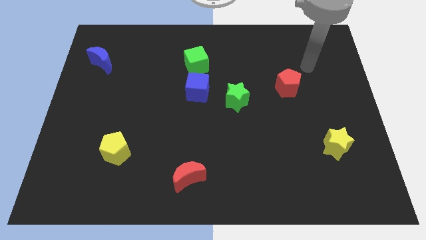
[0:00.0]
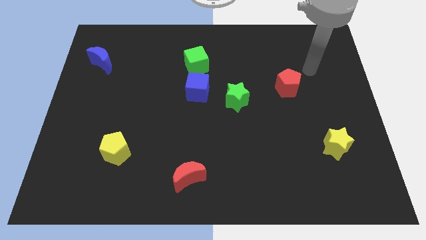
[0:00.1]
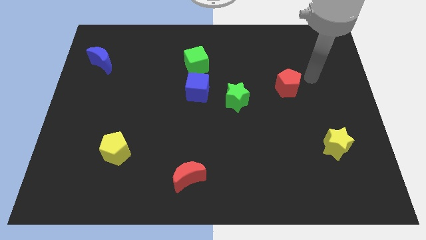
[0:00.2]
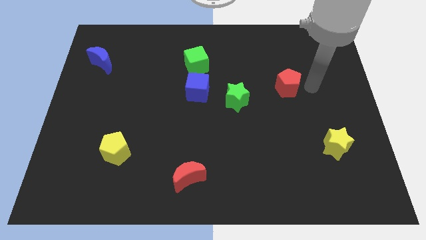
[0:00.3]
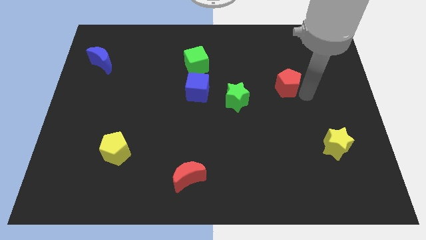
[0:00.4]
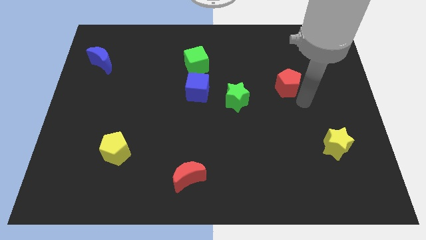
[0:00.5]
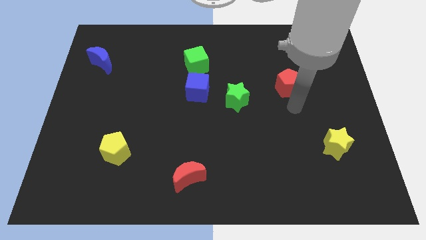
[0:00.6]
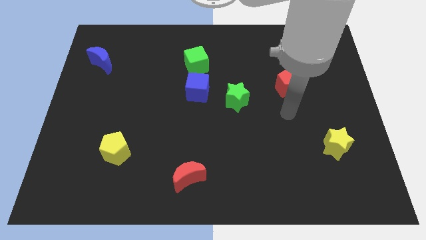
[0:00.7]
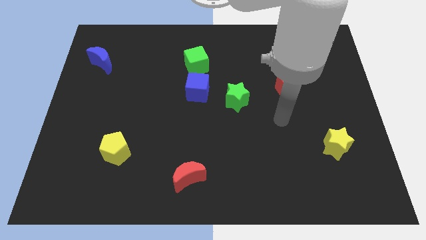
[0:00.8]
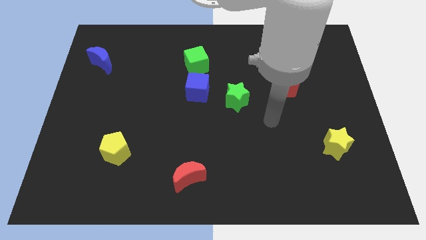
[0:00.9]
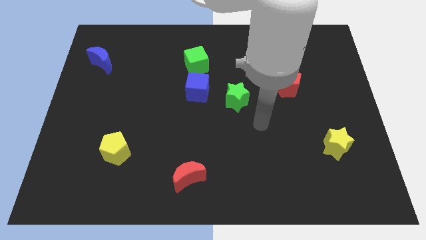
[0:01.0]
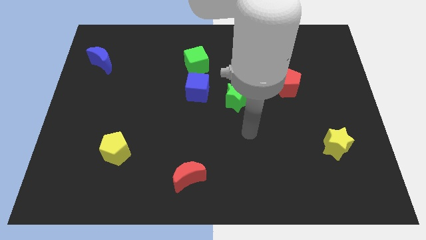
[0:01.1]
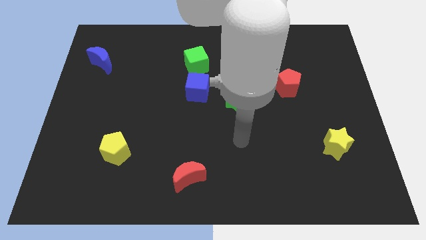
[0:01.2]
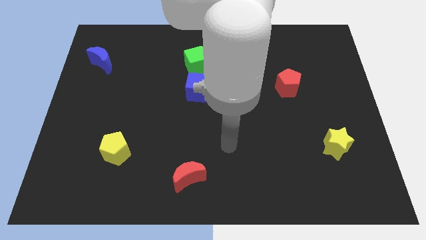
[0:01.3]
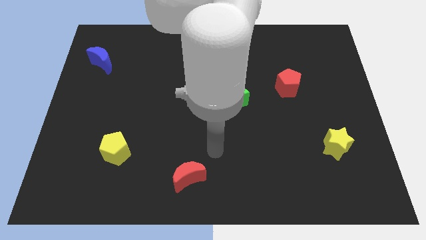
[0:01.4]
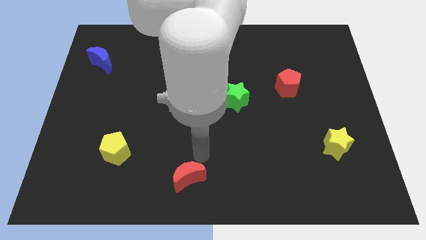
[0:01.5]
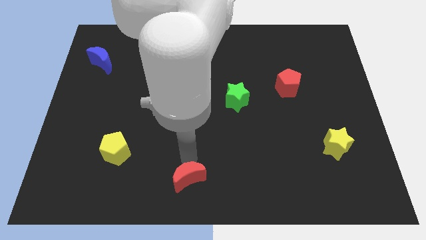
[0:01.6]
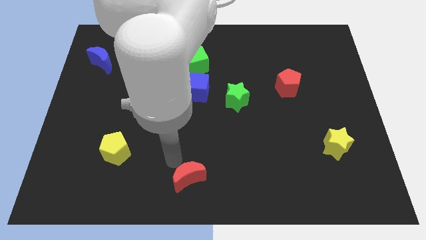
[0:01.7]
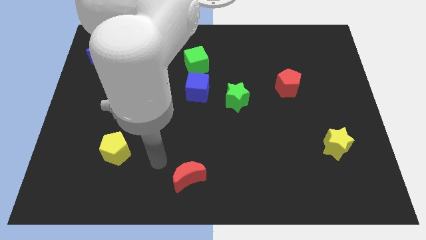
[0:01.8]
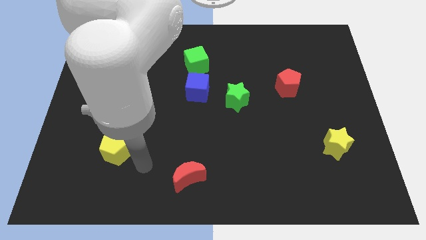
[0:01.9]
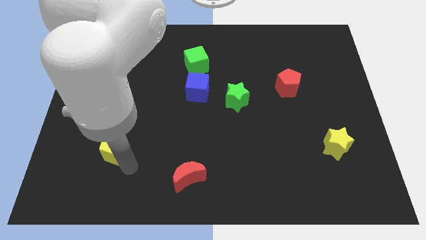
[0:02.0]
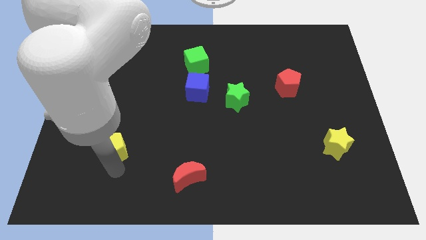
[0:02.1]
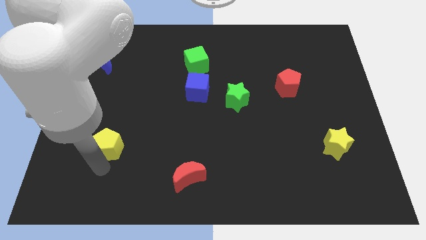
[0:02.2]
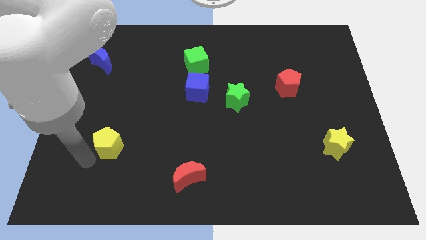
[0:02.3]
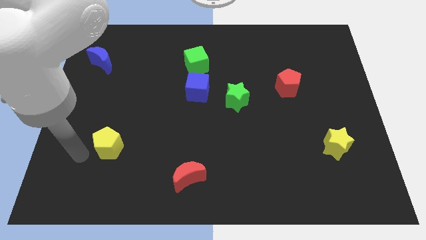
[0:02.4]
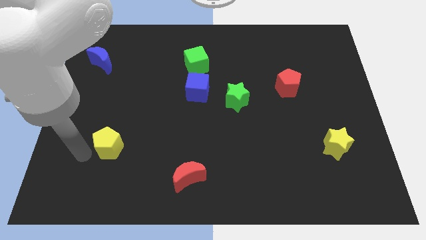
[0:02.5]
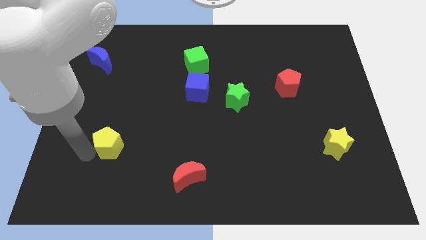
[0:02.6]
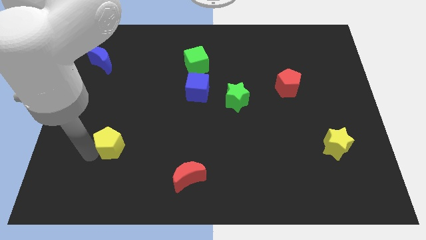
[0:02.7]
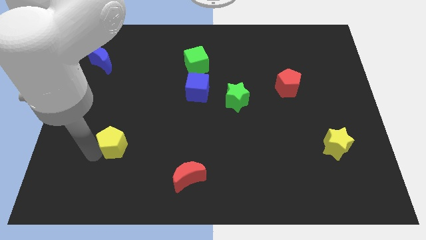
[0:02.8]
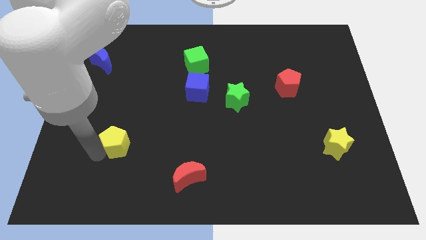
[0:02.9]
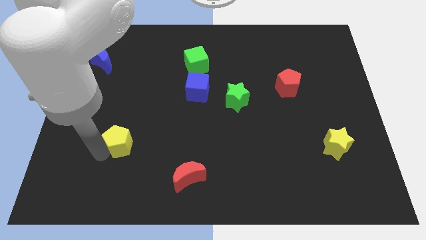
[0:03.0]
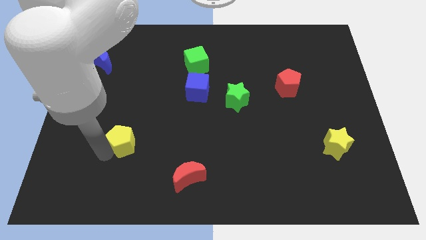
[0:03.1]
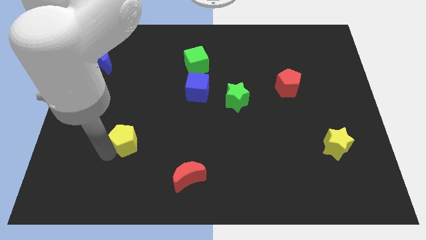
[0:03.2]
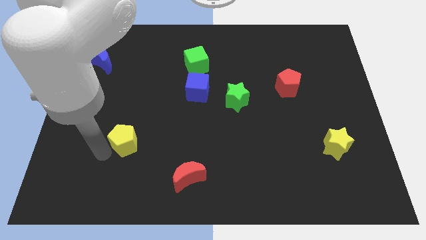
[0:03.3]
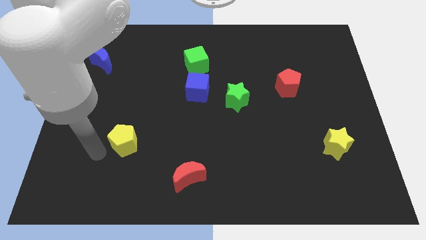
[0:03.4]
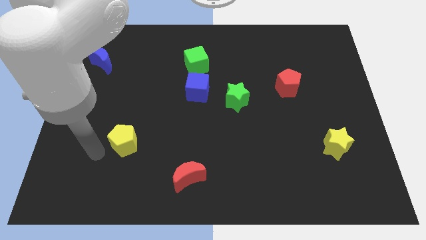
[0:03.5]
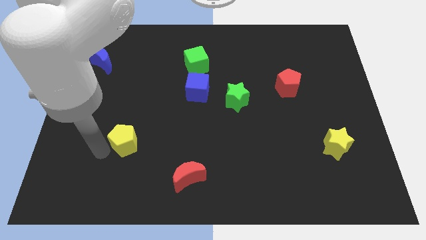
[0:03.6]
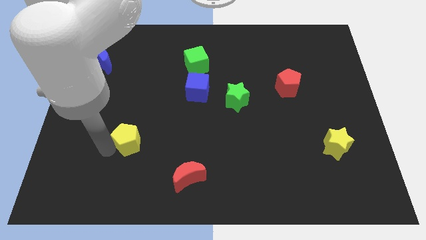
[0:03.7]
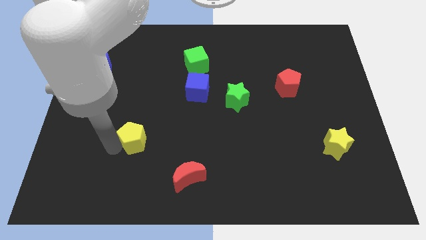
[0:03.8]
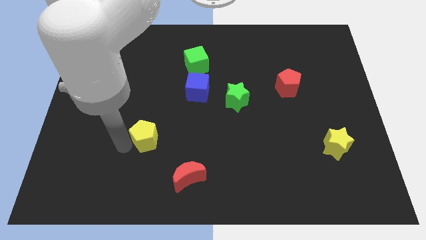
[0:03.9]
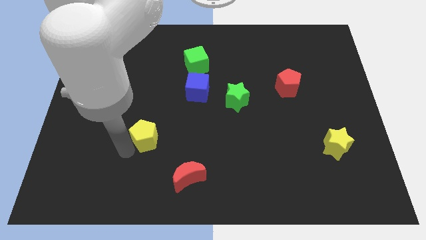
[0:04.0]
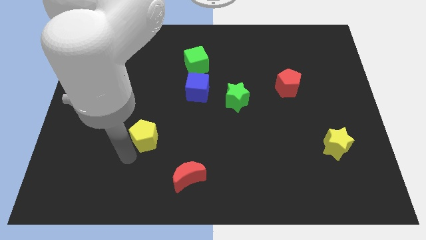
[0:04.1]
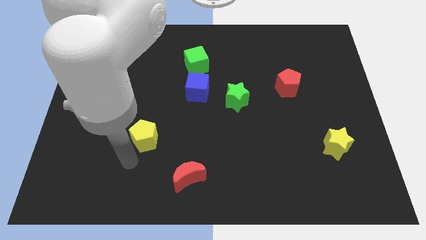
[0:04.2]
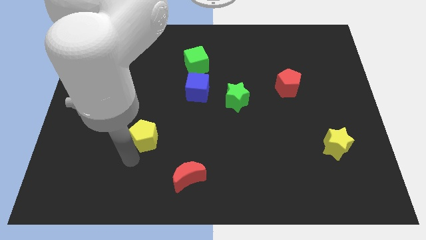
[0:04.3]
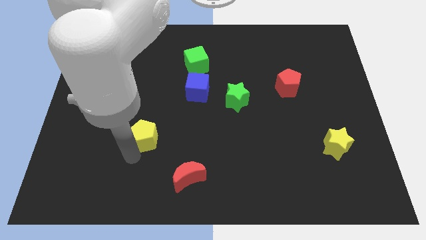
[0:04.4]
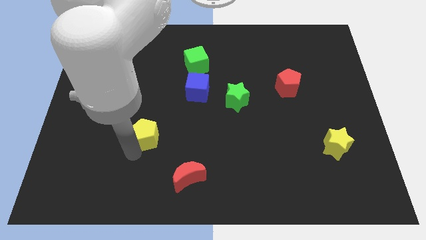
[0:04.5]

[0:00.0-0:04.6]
slightly move the yellow pentagon upwards and to the right diagonally

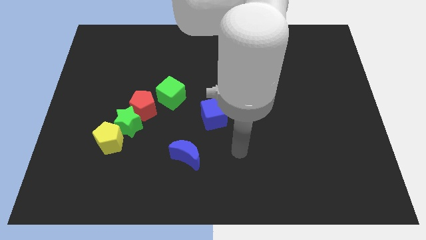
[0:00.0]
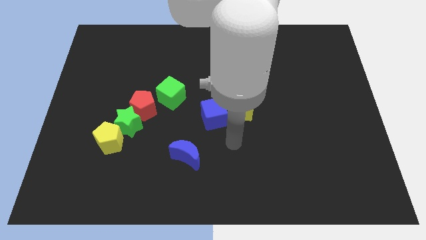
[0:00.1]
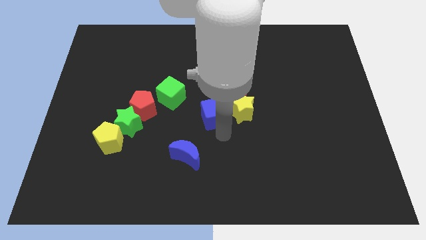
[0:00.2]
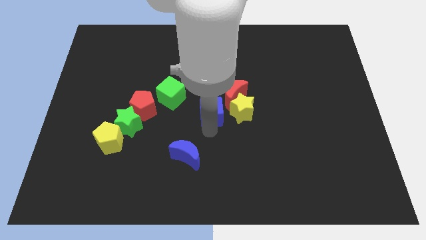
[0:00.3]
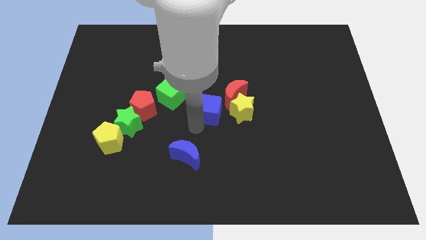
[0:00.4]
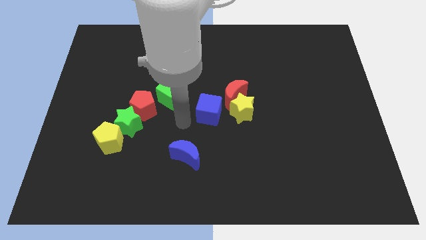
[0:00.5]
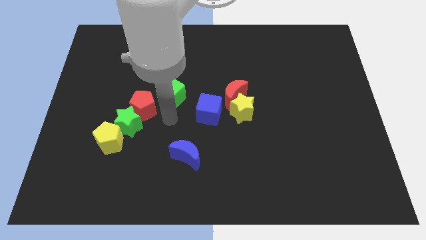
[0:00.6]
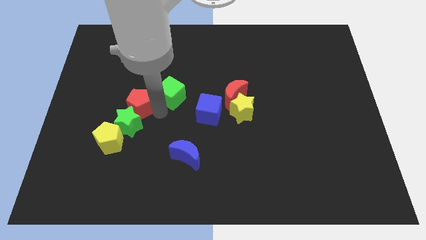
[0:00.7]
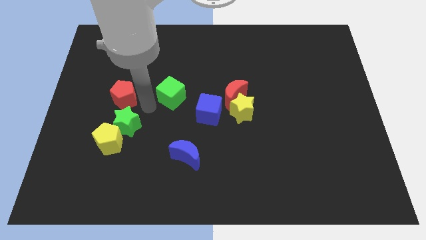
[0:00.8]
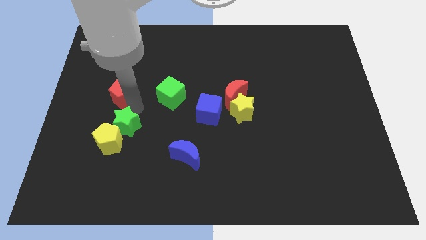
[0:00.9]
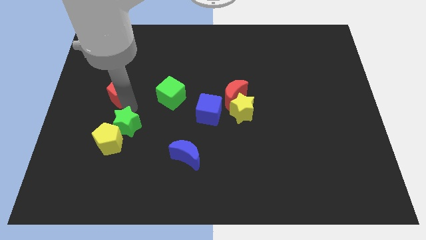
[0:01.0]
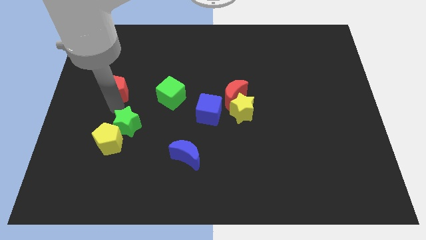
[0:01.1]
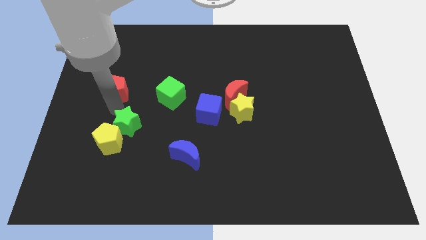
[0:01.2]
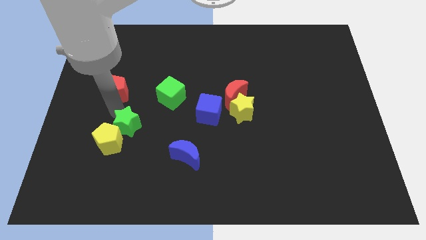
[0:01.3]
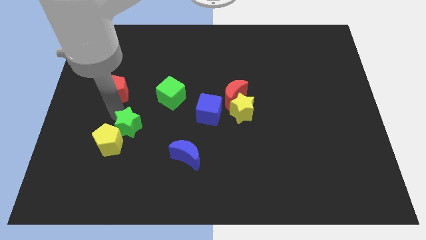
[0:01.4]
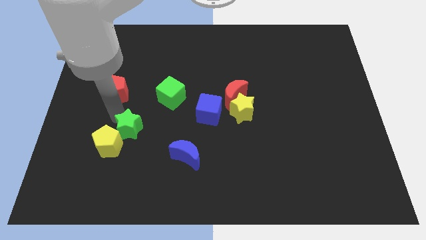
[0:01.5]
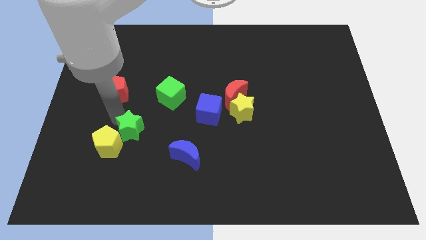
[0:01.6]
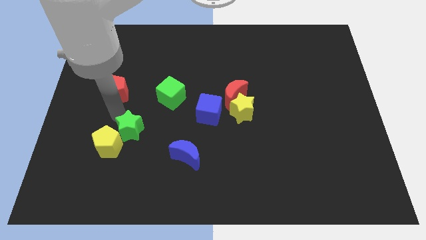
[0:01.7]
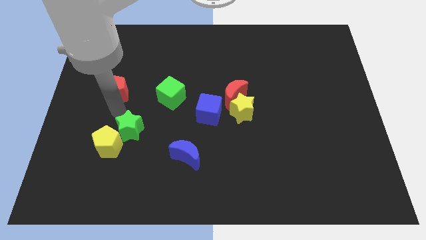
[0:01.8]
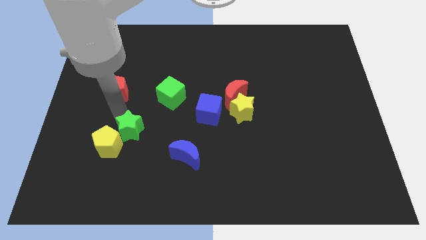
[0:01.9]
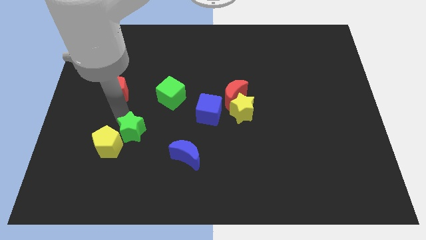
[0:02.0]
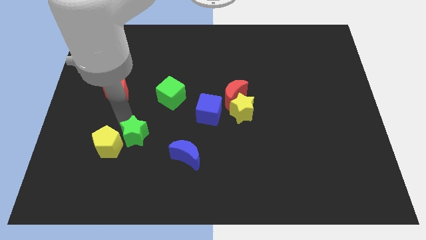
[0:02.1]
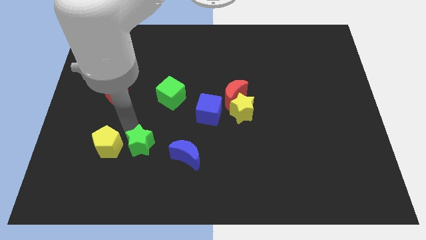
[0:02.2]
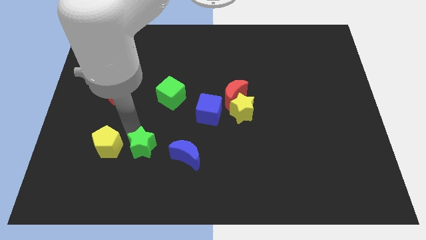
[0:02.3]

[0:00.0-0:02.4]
slightly push the green star down and to the right

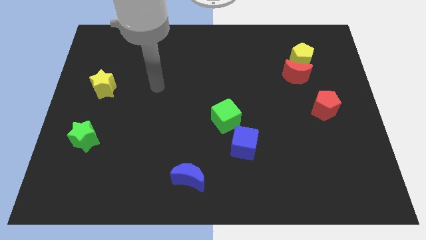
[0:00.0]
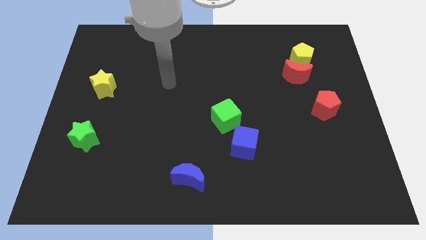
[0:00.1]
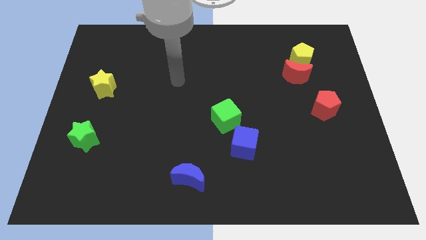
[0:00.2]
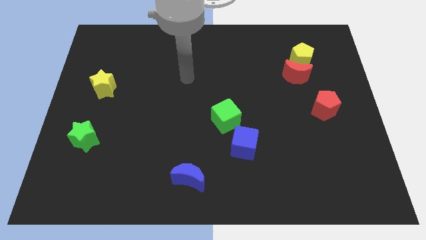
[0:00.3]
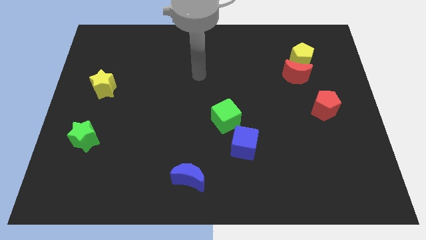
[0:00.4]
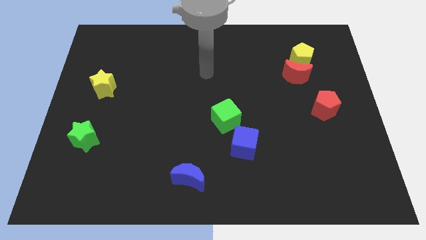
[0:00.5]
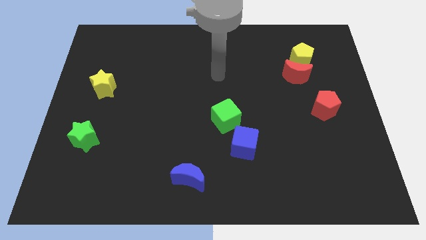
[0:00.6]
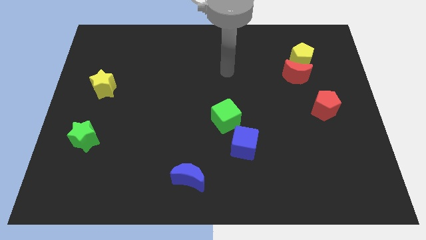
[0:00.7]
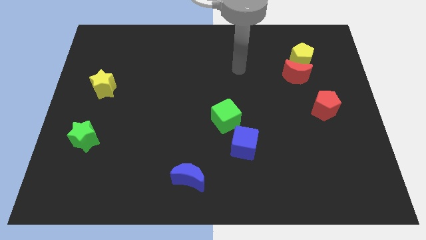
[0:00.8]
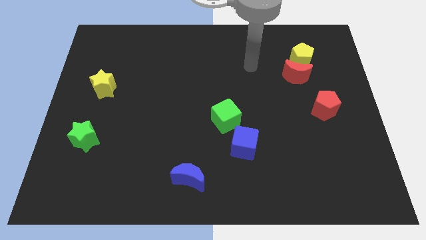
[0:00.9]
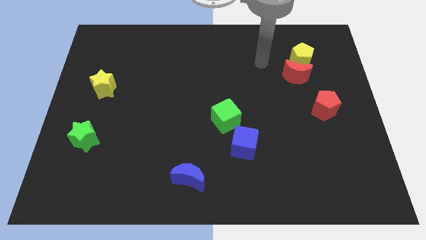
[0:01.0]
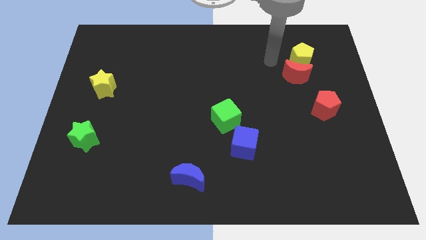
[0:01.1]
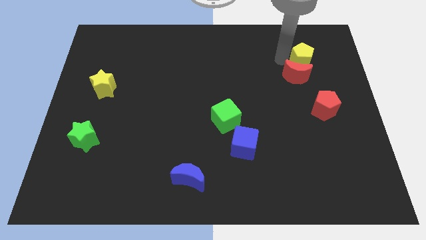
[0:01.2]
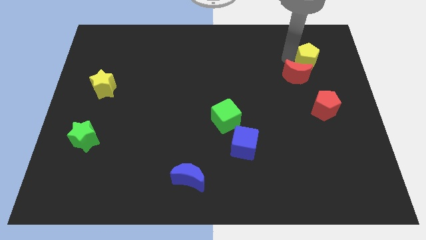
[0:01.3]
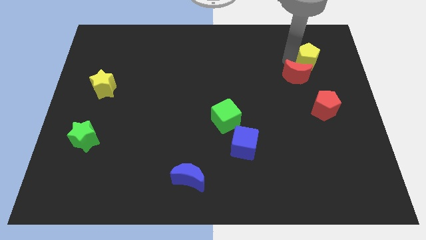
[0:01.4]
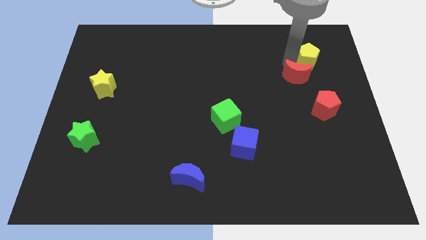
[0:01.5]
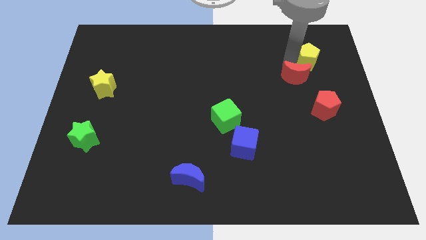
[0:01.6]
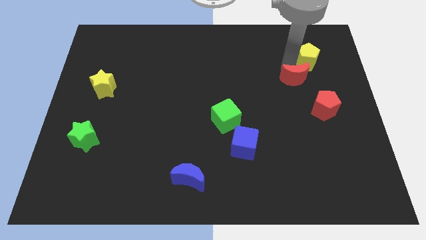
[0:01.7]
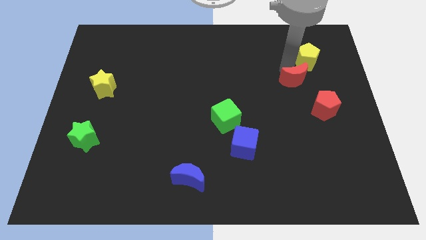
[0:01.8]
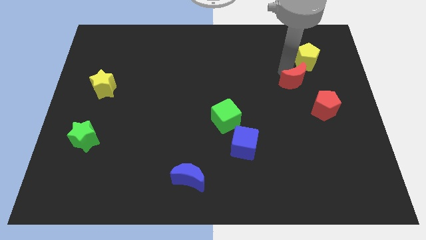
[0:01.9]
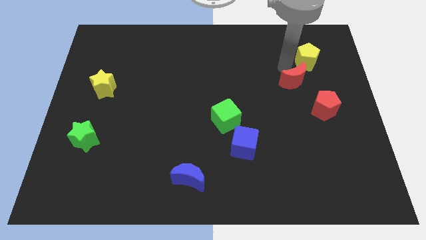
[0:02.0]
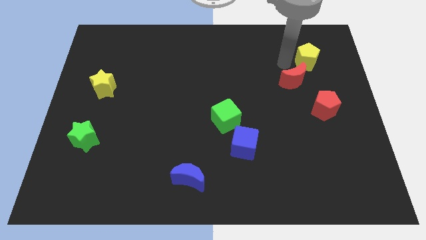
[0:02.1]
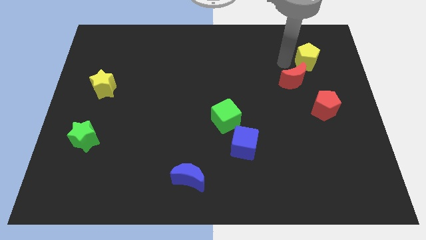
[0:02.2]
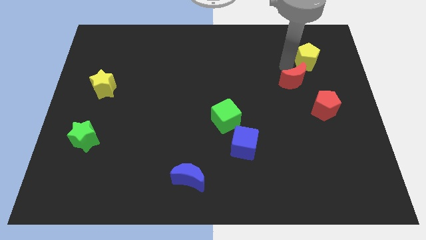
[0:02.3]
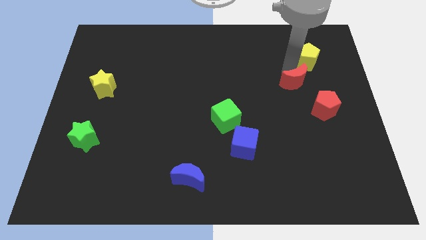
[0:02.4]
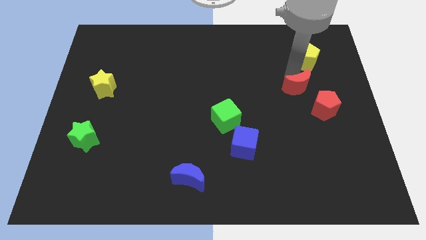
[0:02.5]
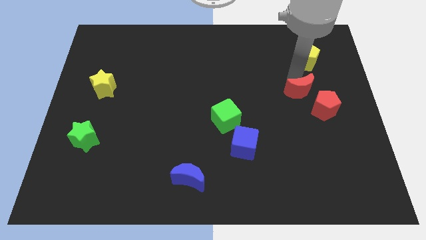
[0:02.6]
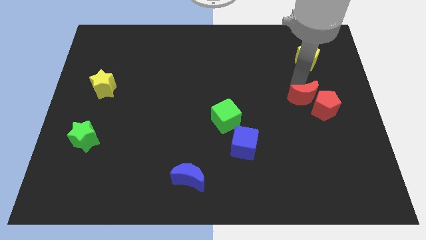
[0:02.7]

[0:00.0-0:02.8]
push the red moon a little bit downwards
